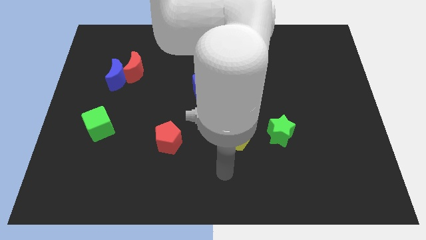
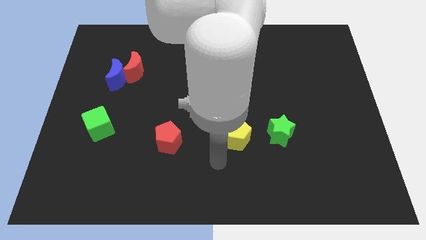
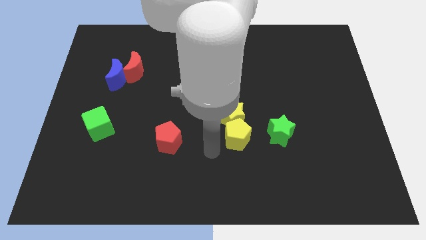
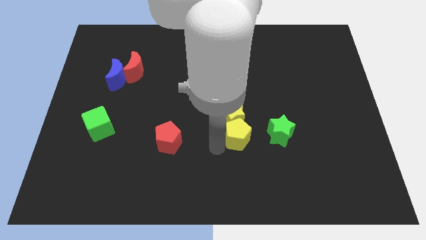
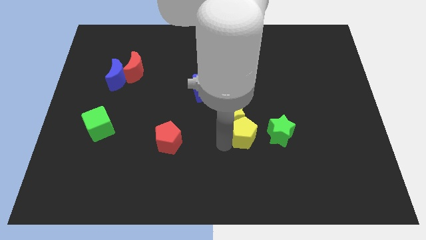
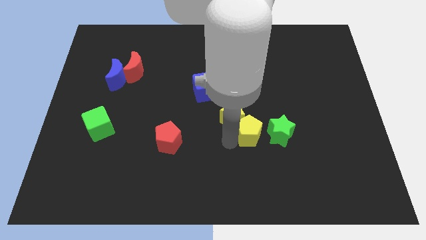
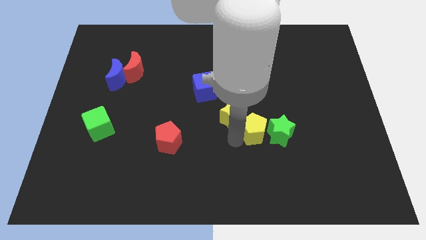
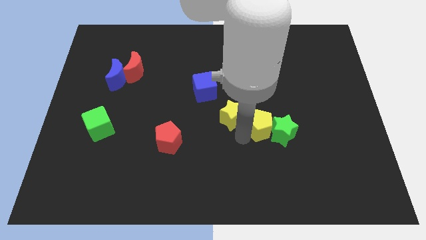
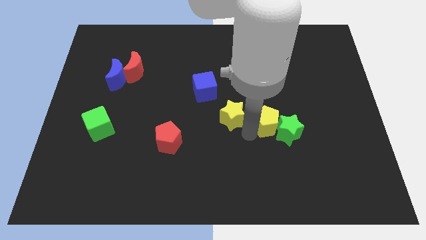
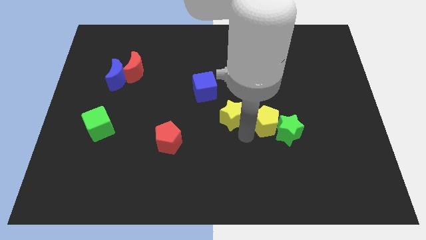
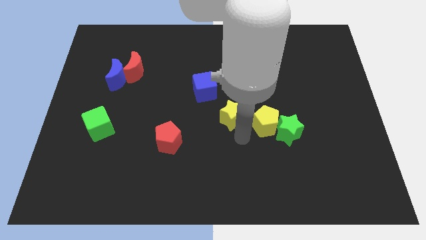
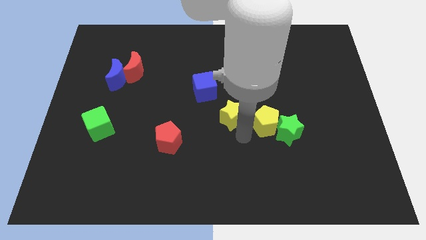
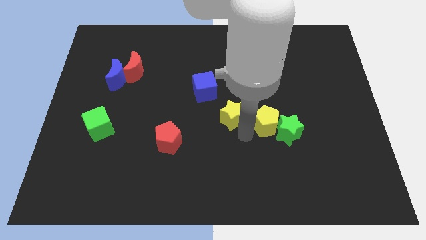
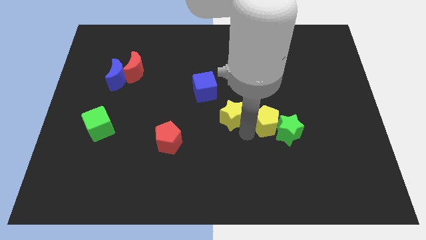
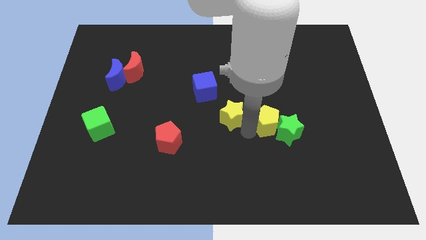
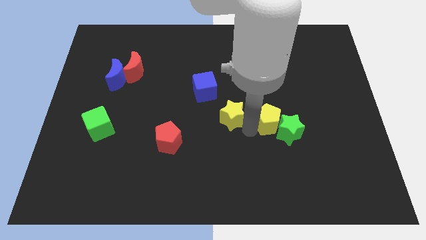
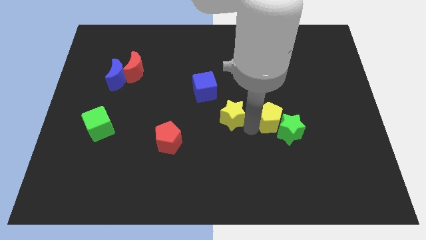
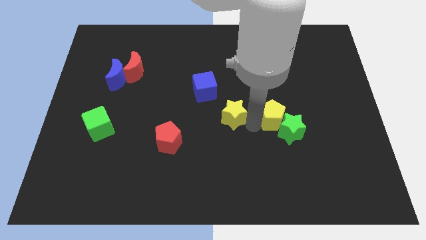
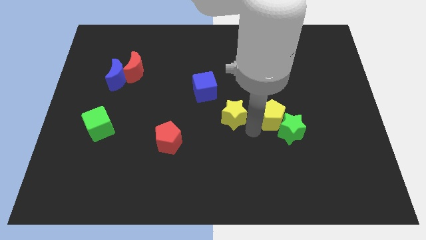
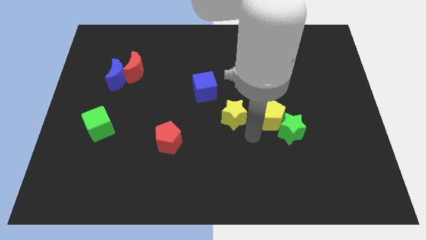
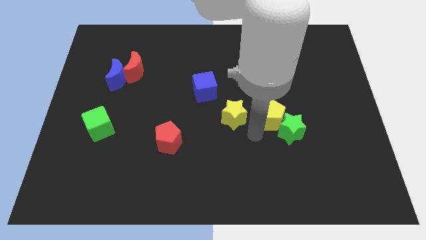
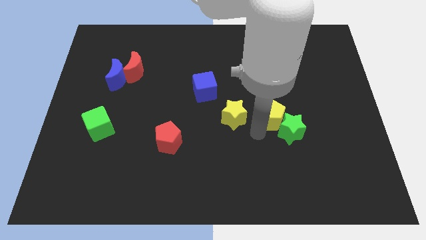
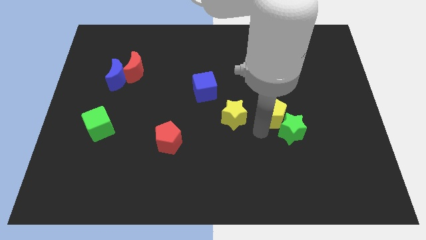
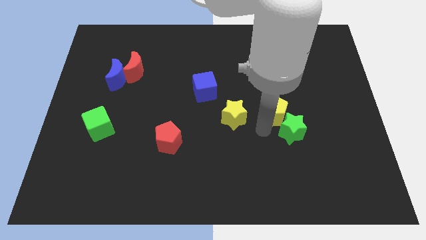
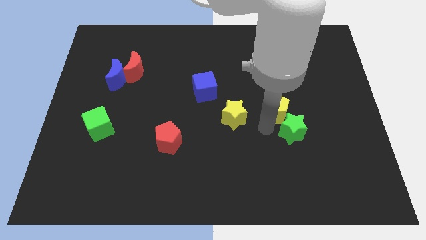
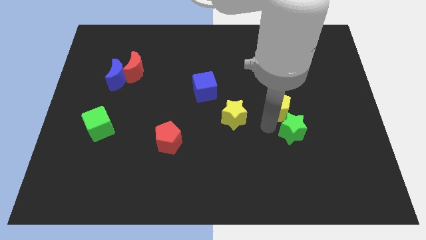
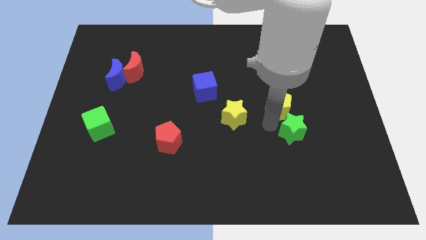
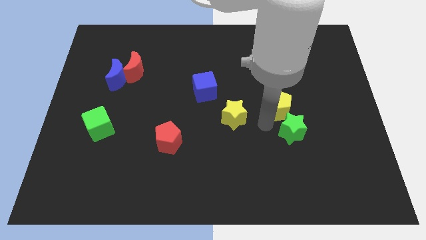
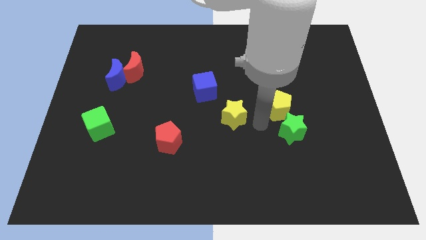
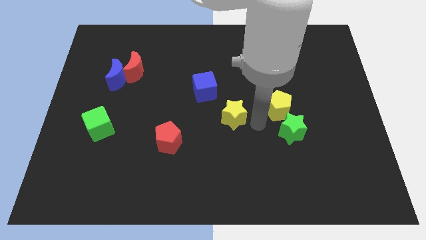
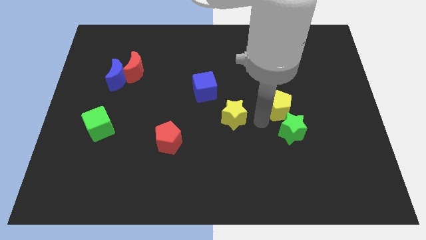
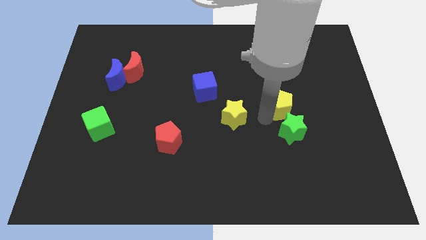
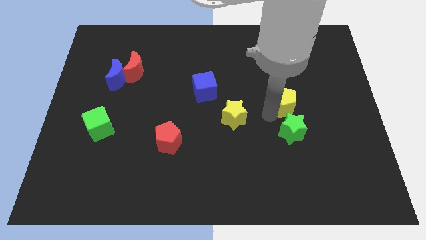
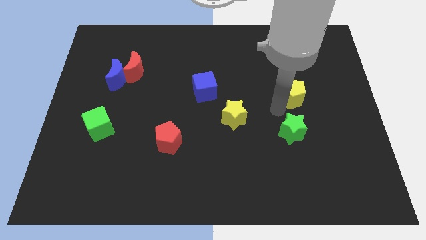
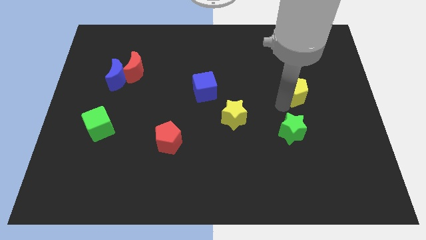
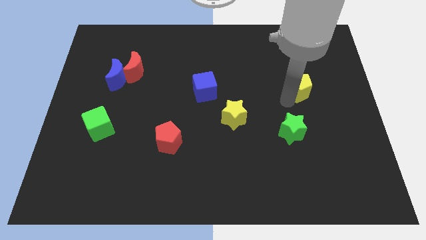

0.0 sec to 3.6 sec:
slide the yellow pentagon diagonally up and right

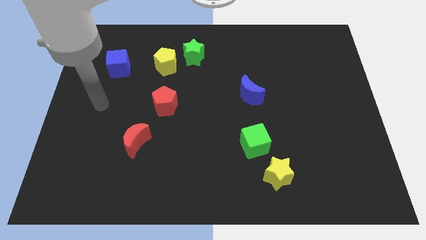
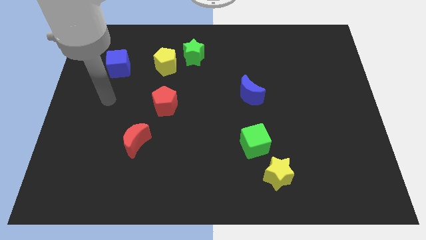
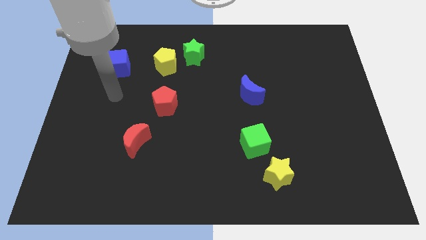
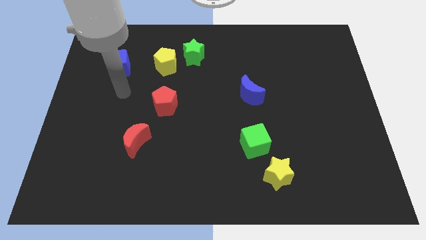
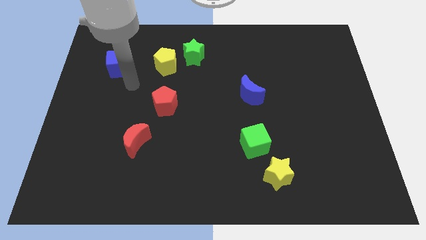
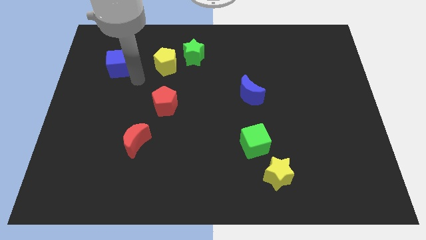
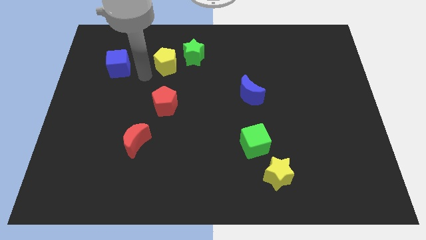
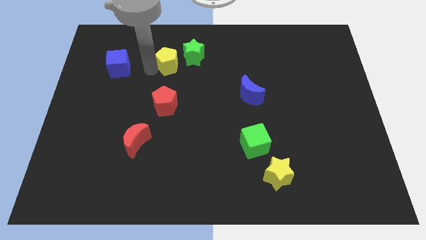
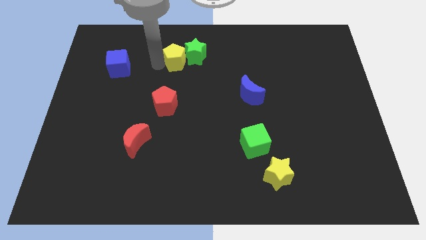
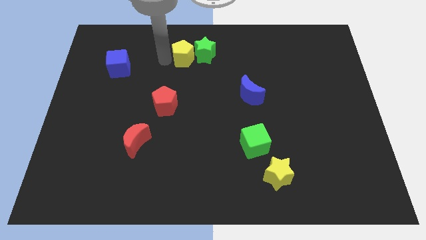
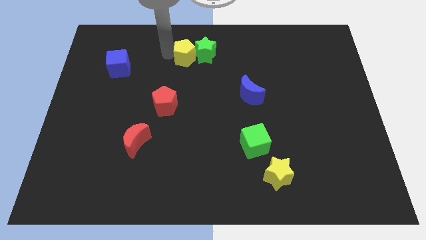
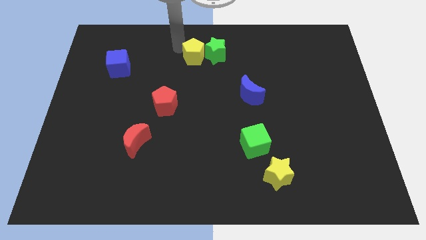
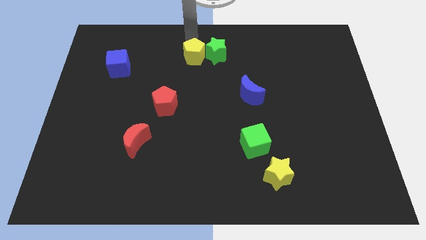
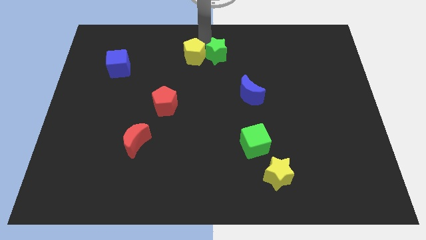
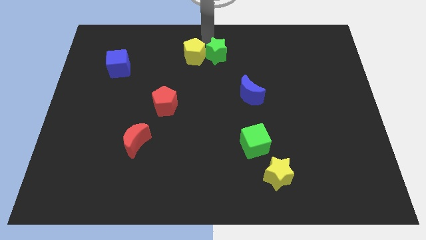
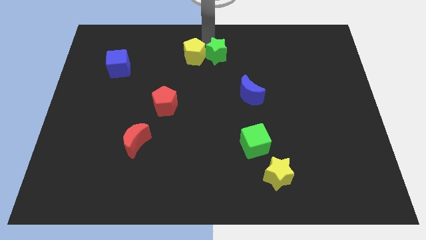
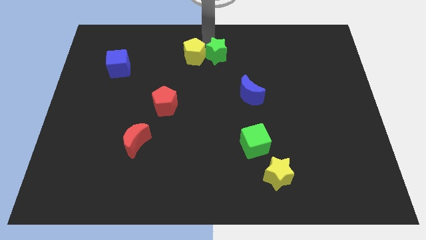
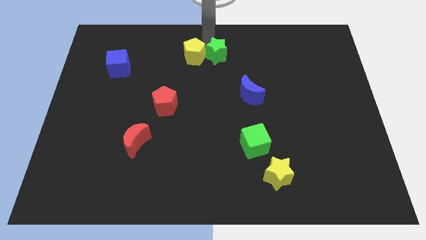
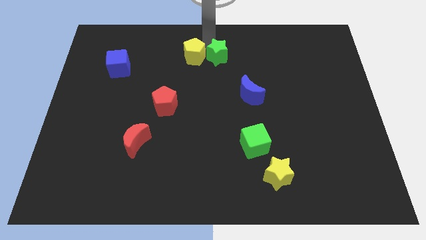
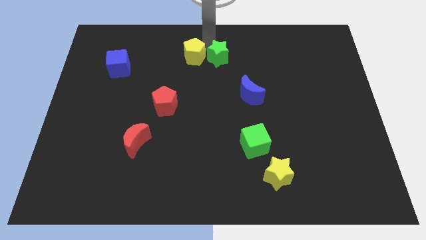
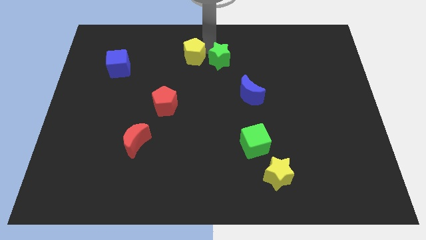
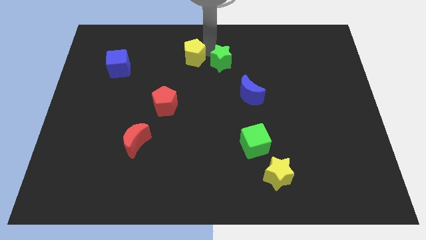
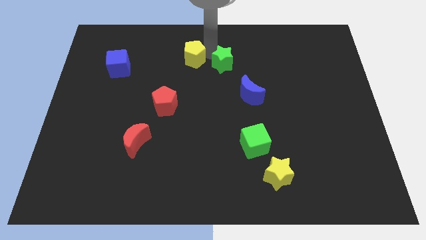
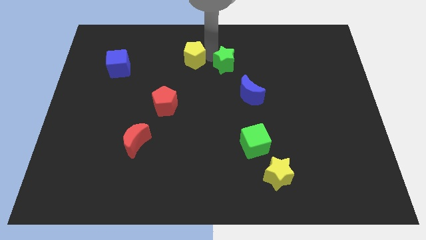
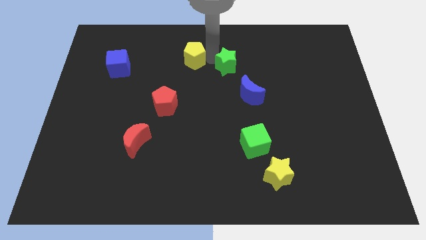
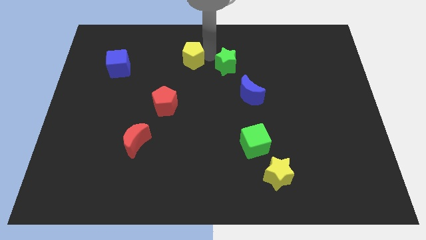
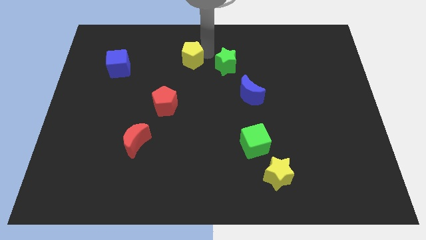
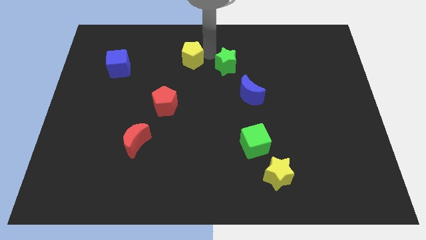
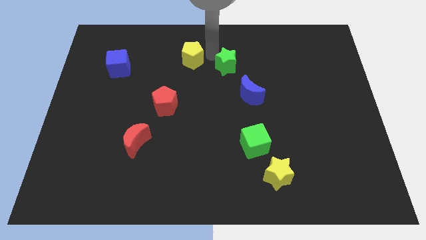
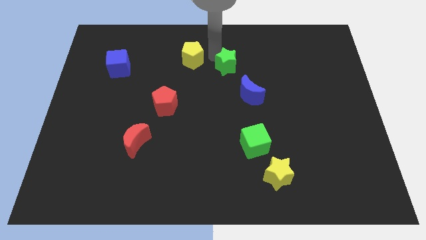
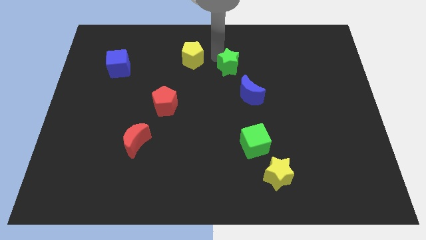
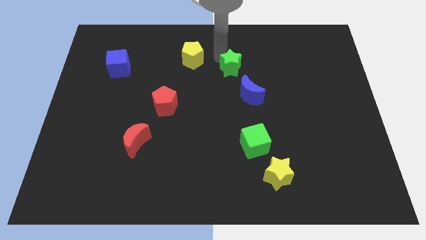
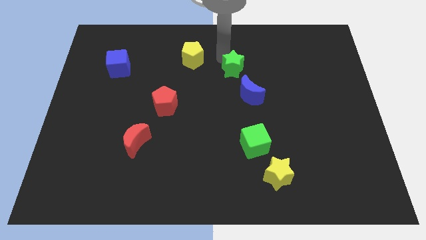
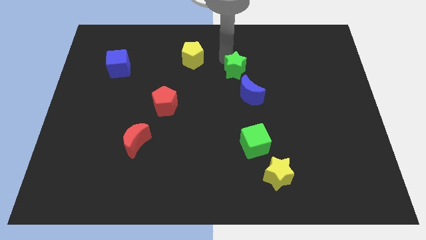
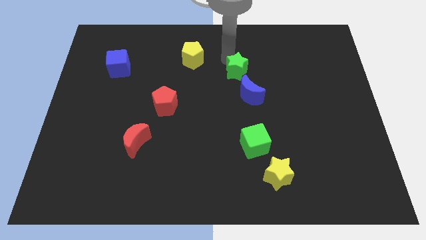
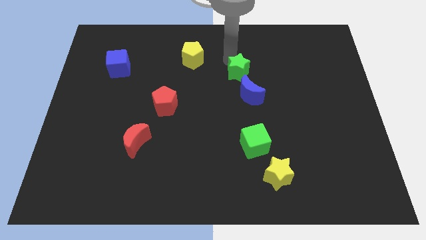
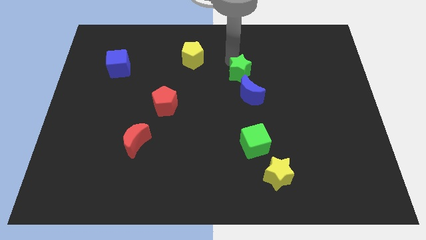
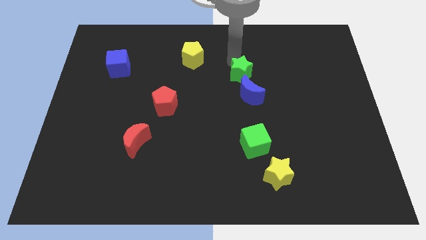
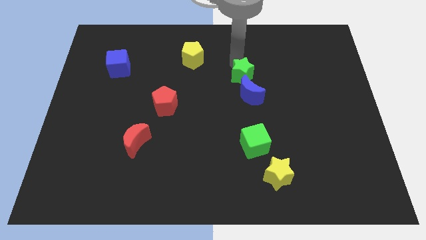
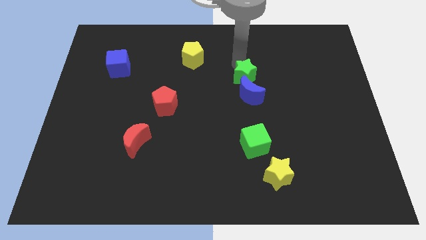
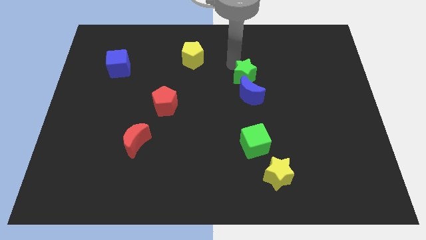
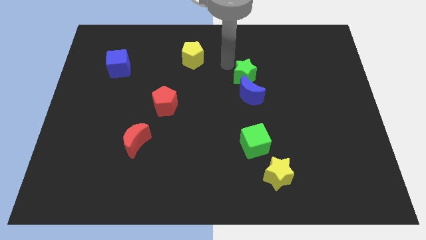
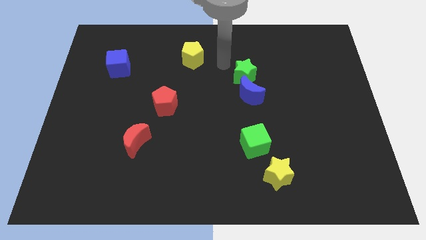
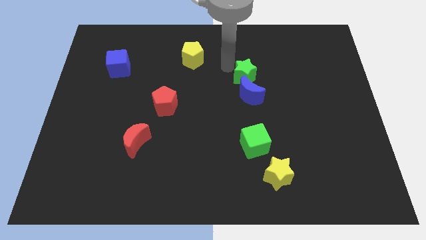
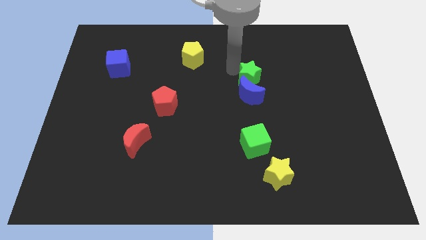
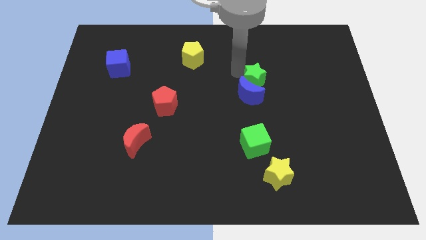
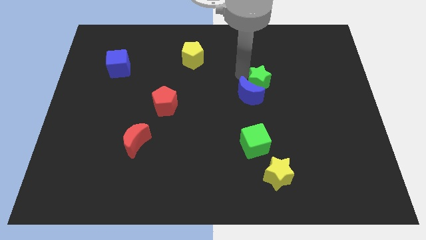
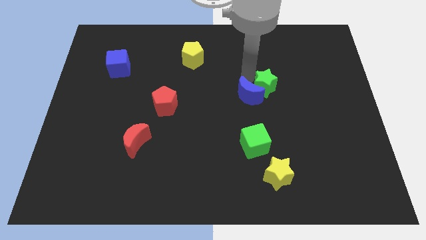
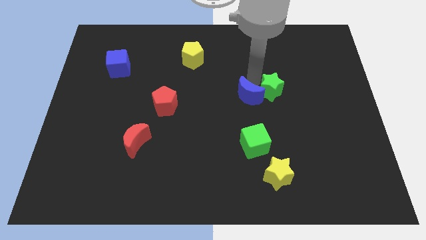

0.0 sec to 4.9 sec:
move the green star diagonally downwards and to the right
